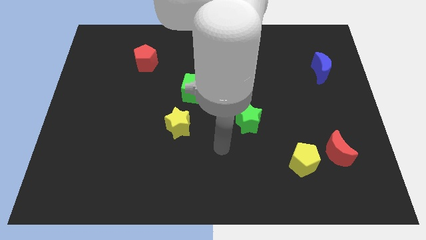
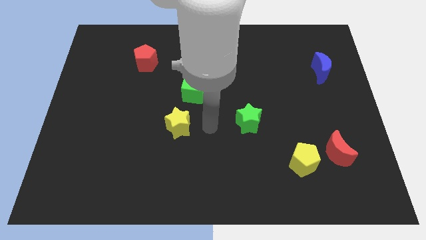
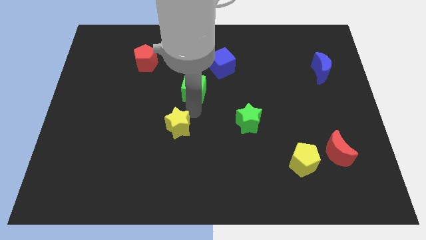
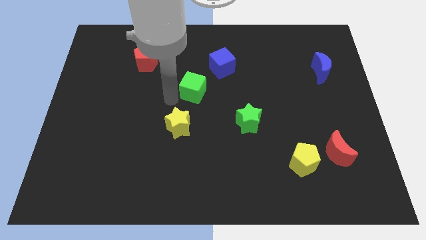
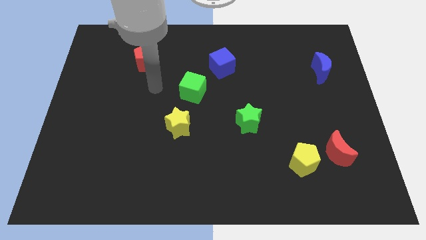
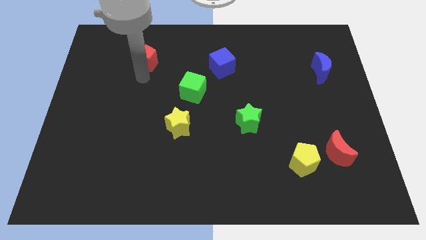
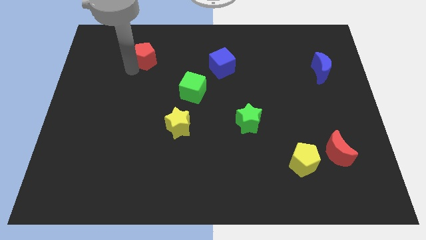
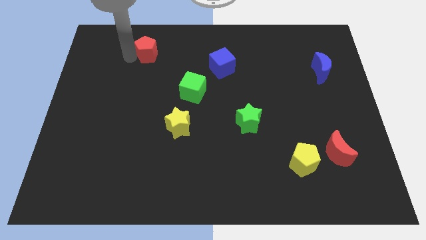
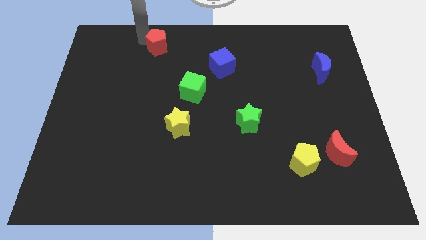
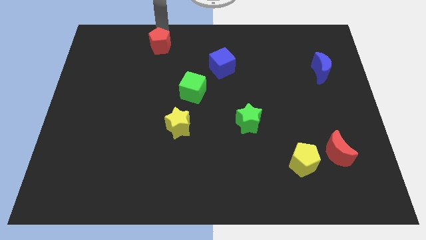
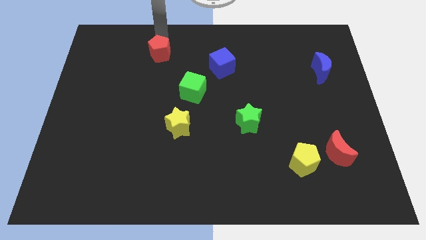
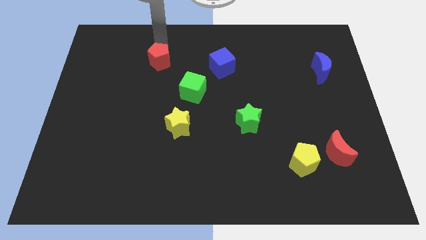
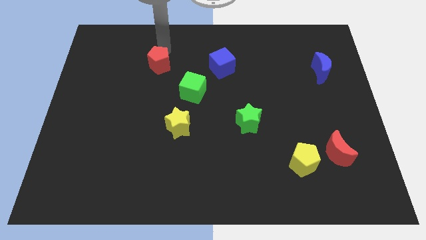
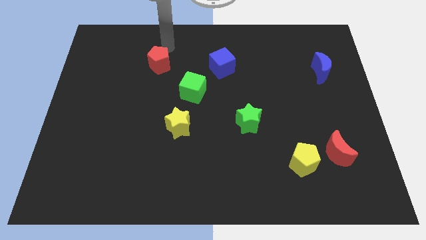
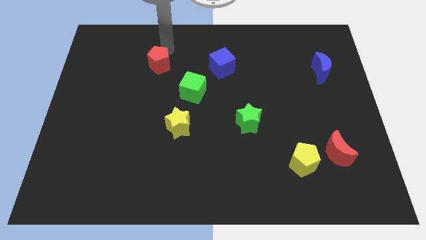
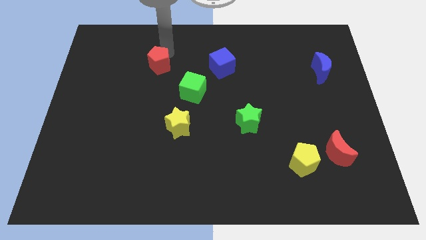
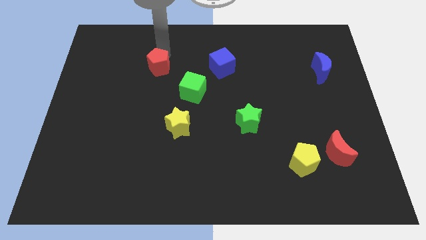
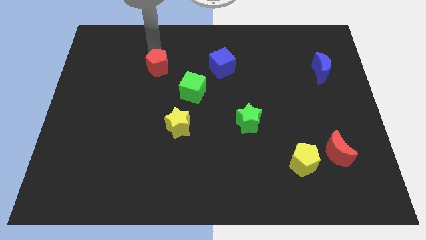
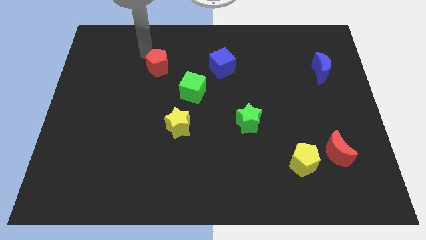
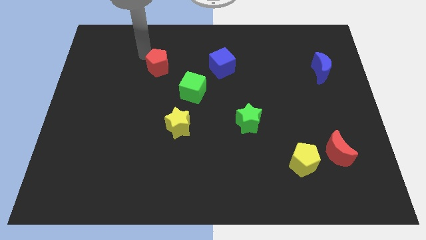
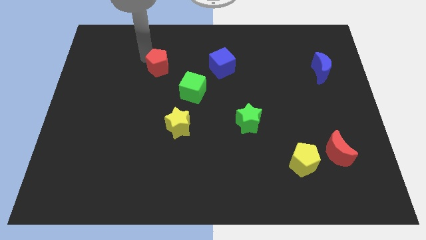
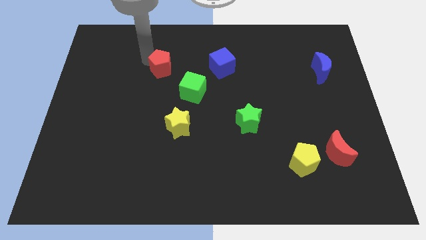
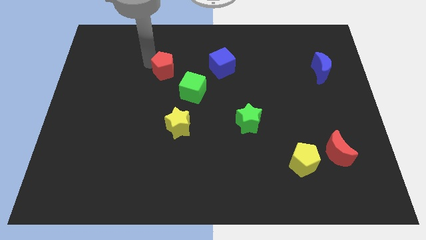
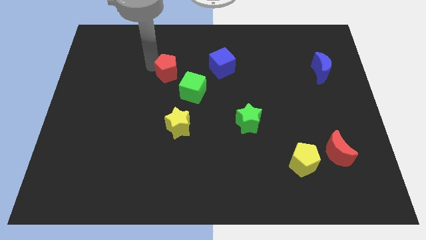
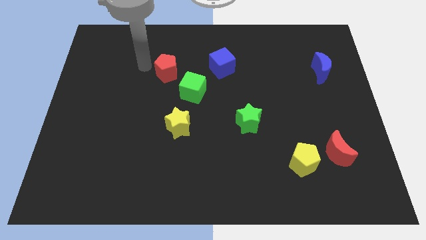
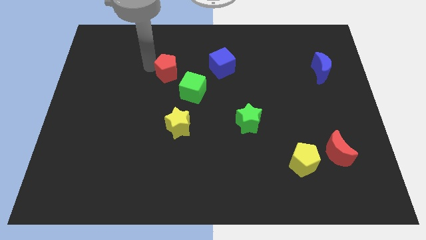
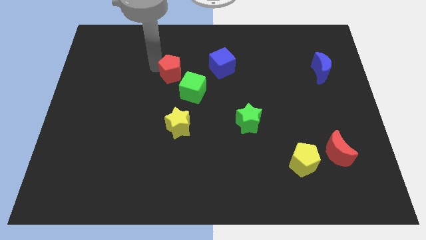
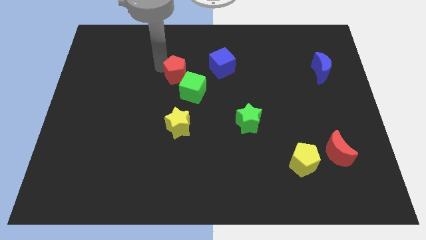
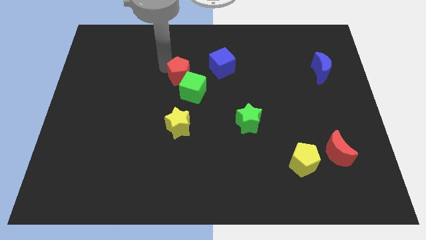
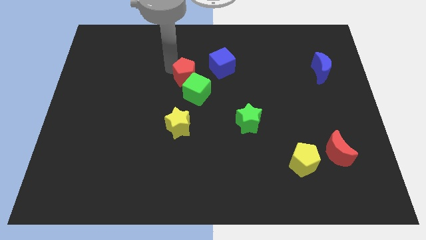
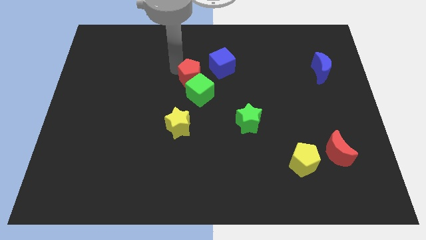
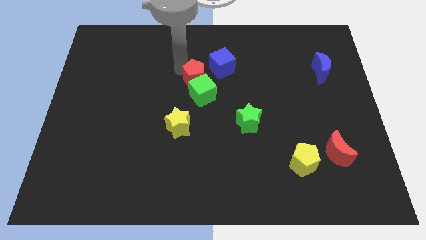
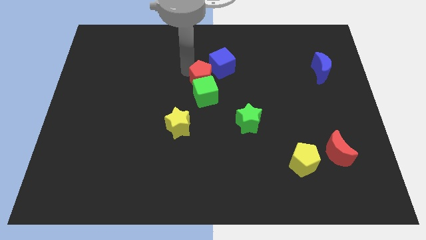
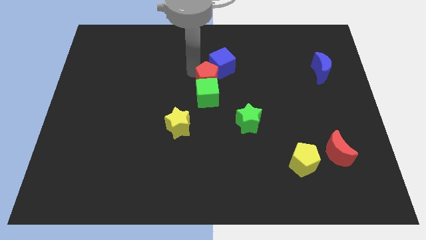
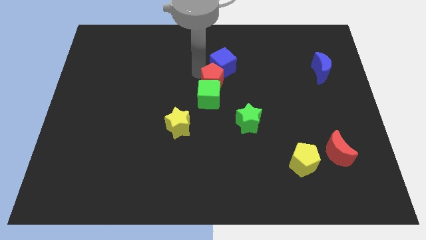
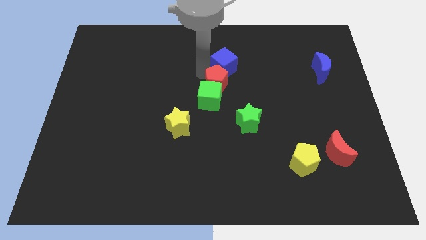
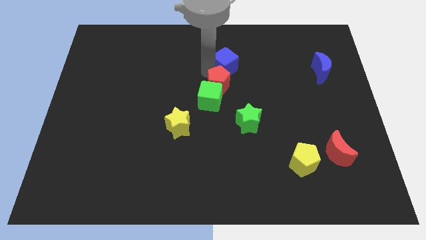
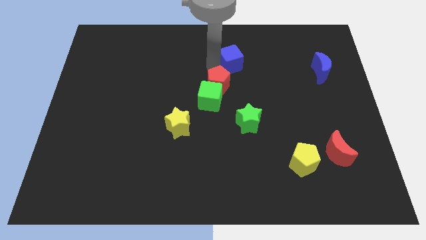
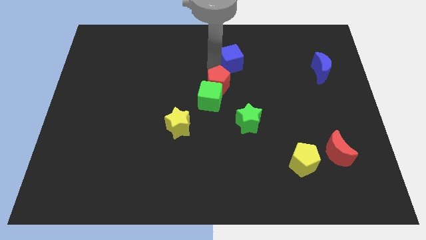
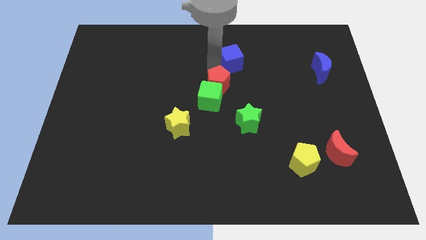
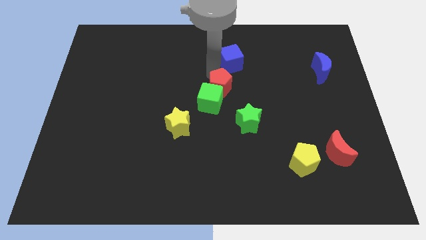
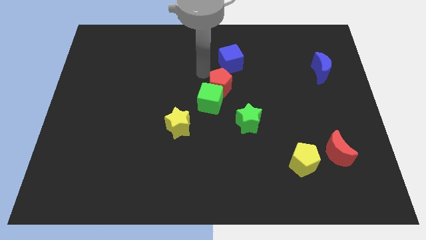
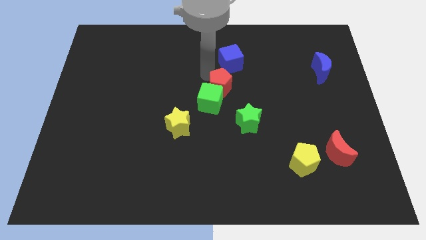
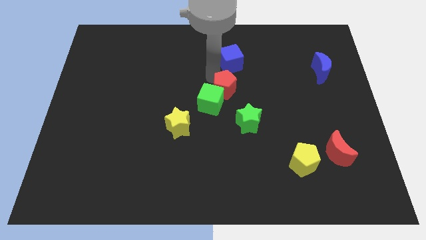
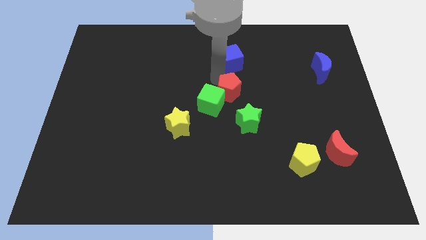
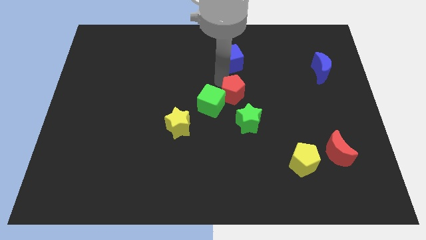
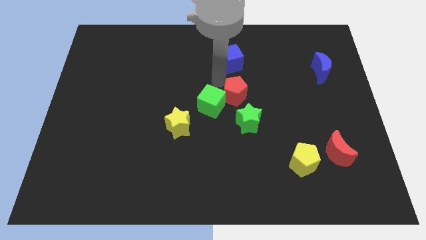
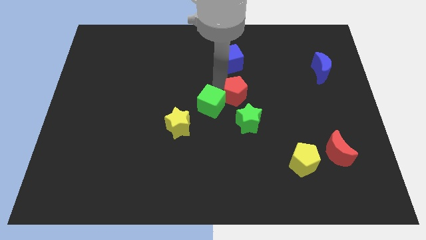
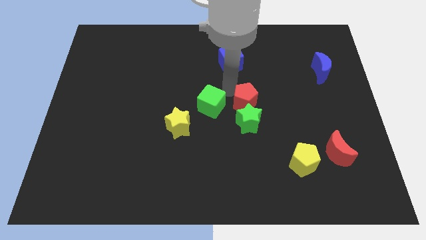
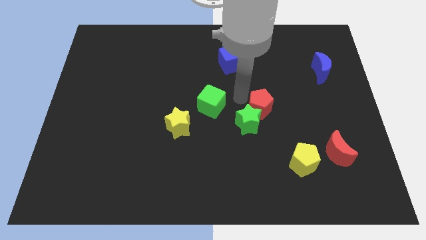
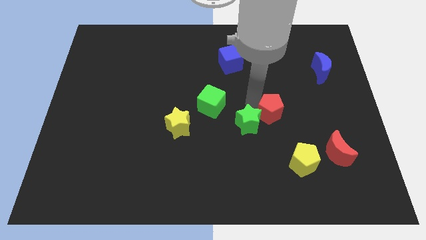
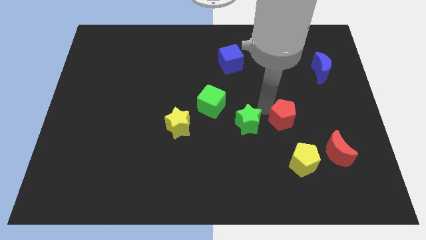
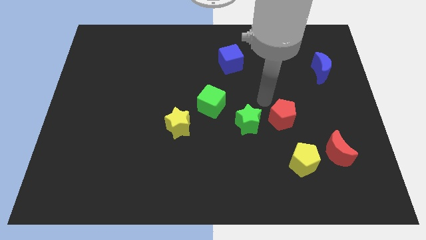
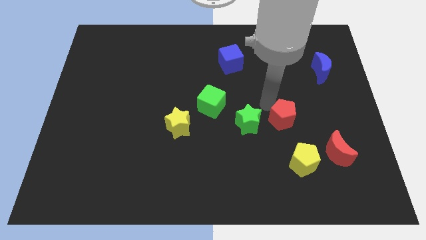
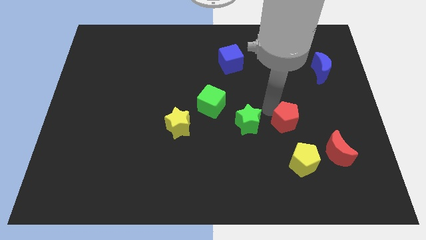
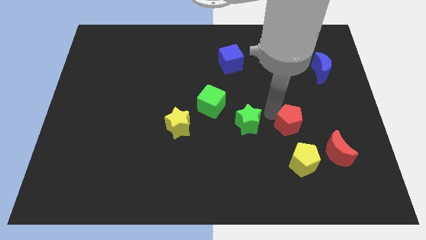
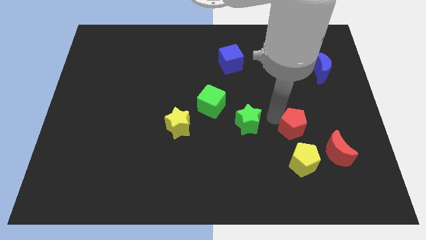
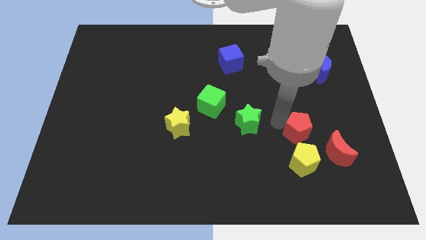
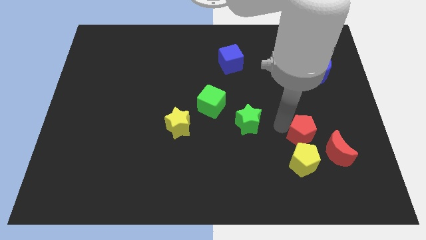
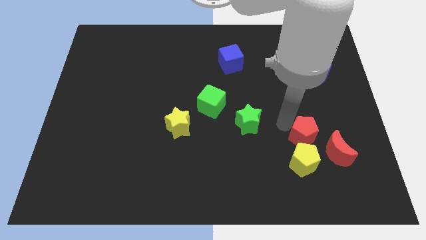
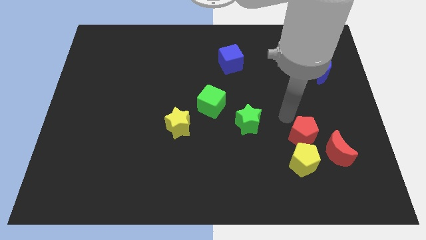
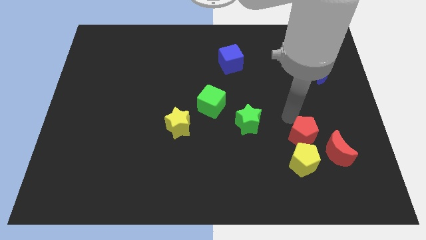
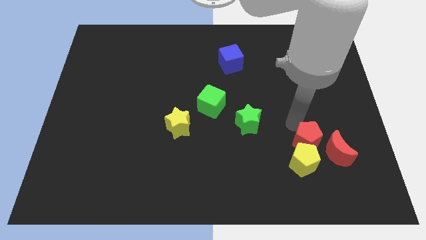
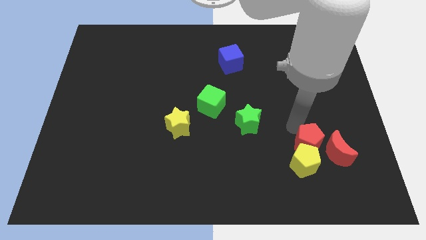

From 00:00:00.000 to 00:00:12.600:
put the red pentagon to the red moon

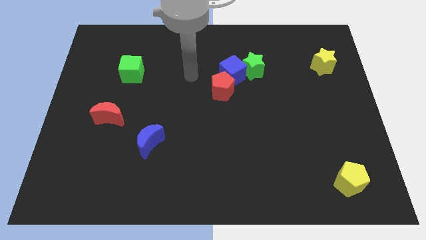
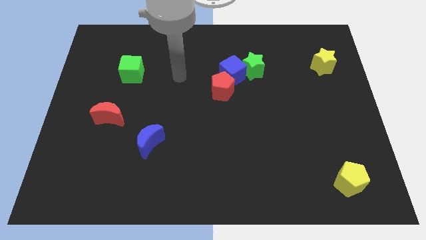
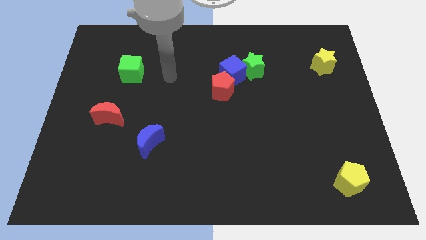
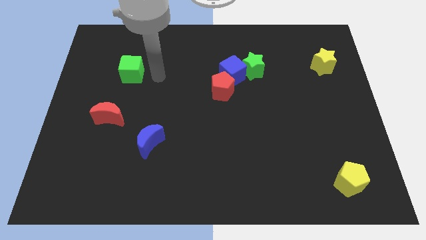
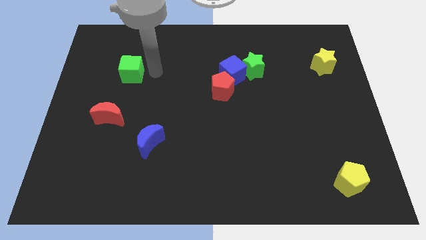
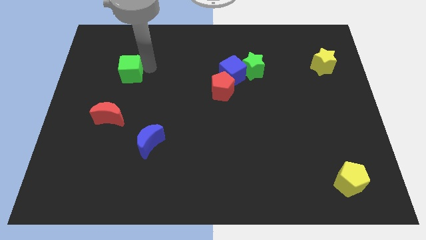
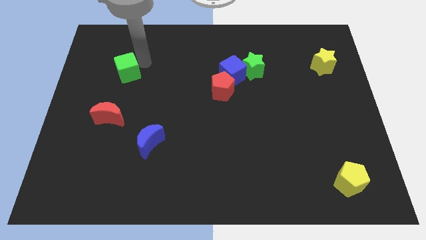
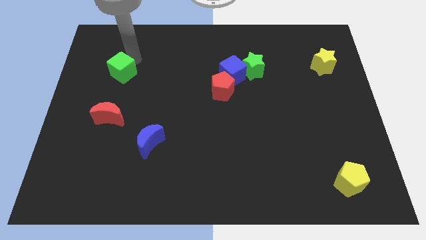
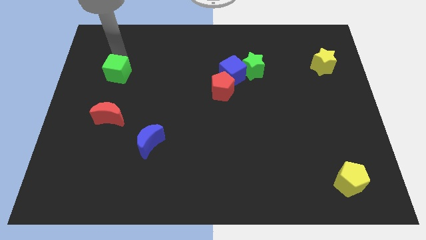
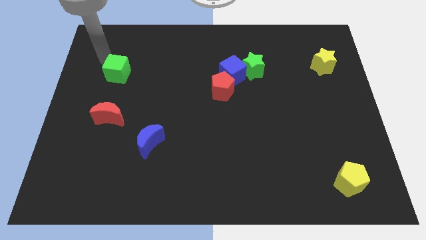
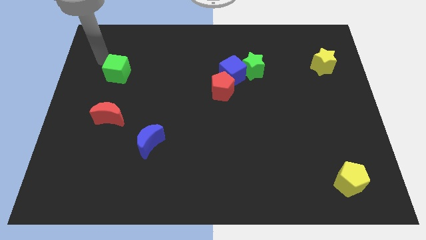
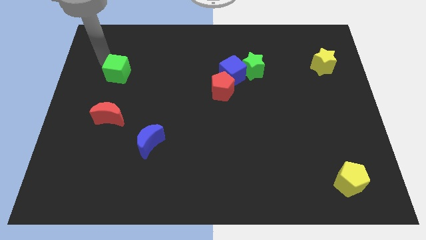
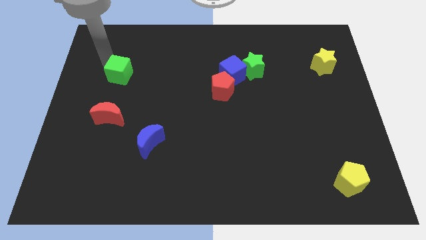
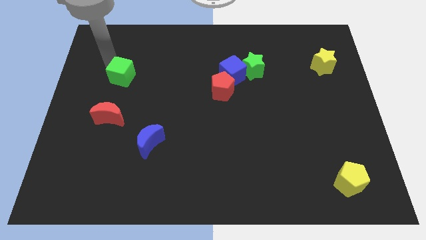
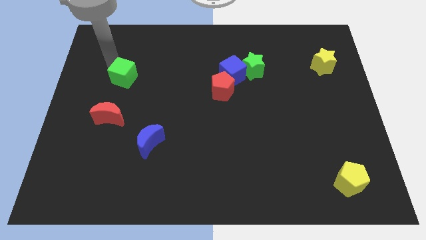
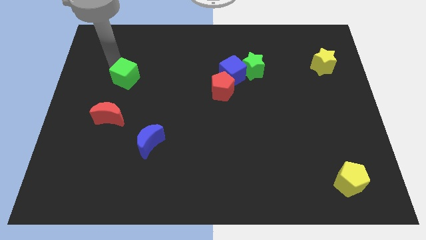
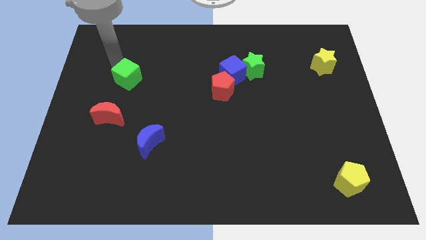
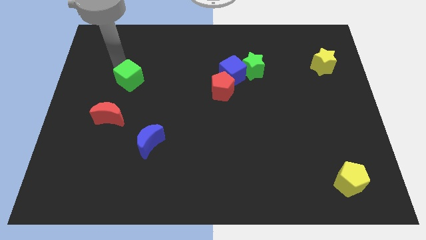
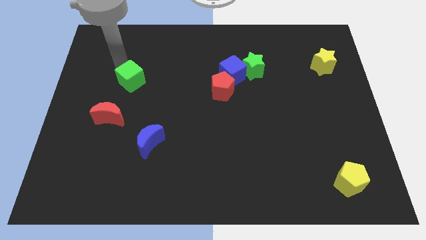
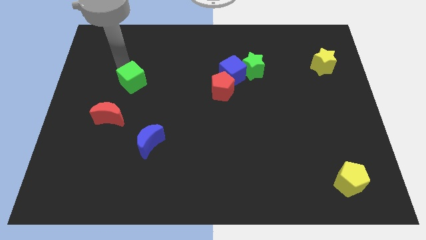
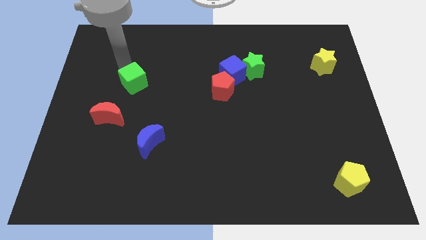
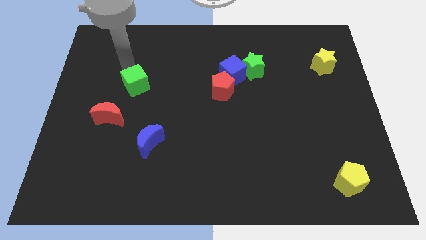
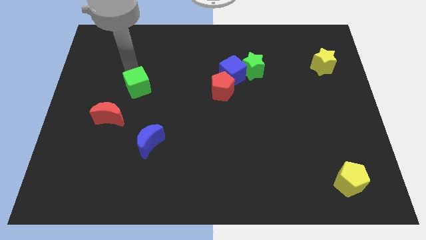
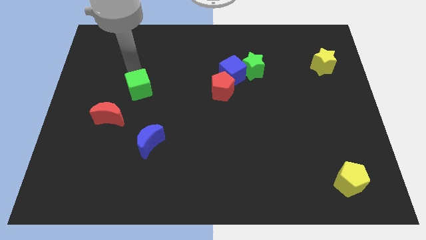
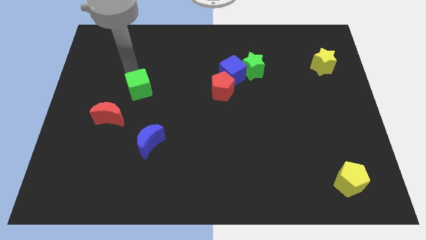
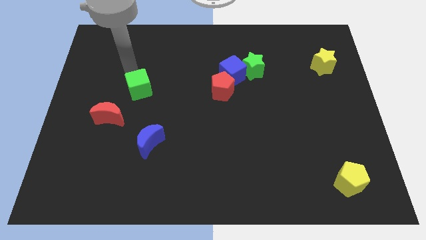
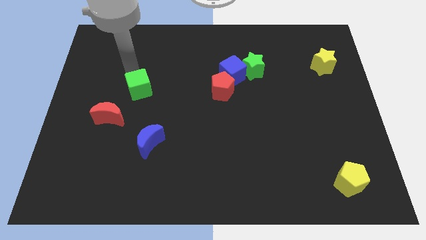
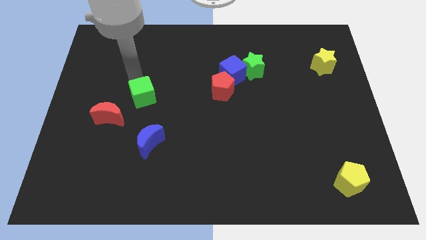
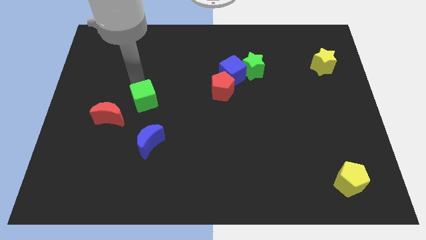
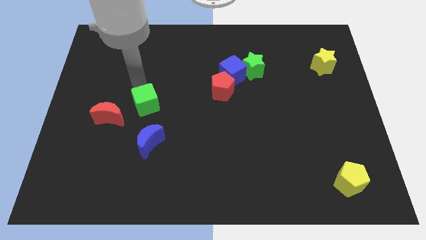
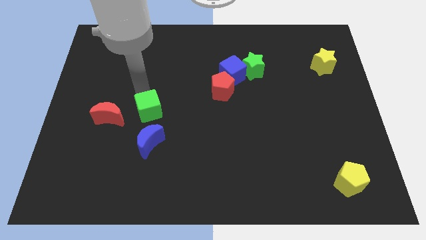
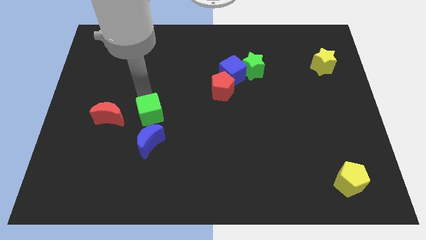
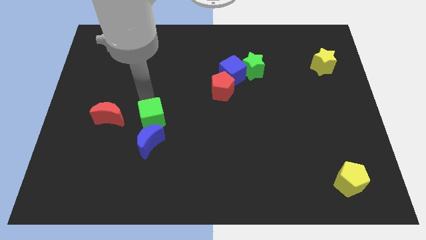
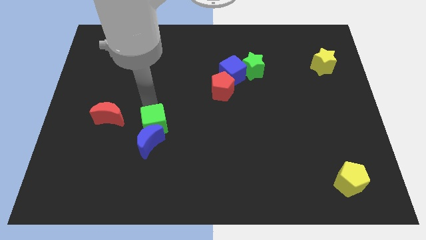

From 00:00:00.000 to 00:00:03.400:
push the green cube close to the blue moon
